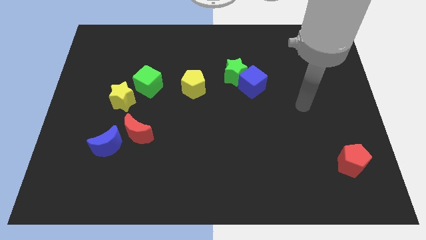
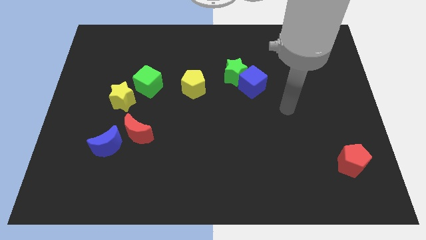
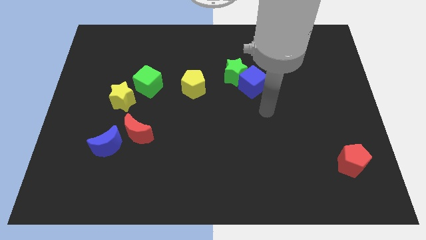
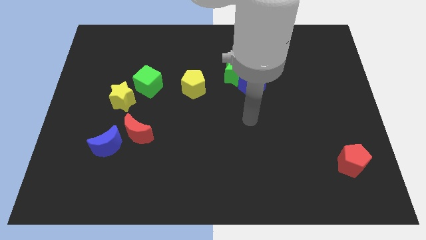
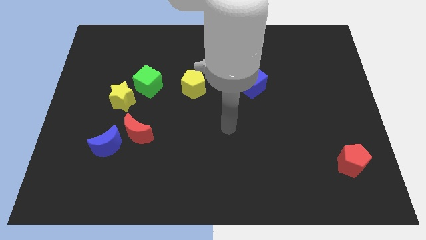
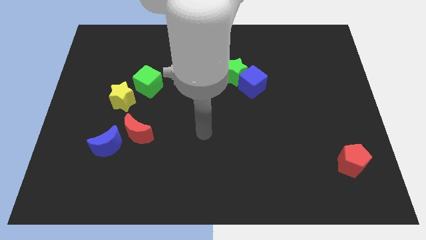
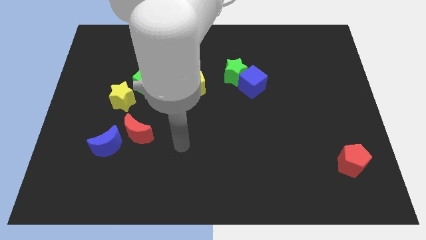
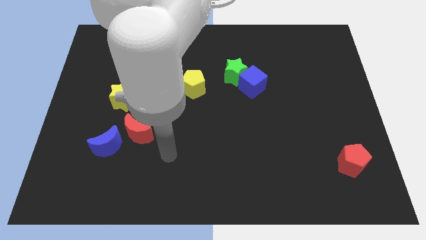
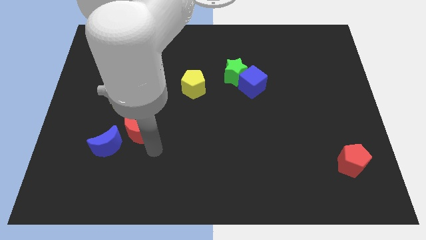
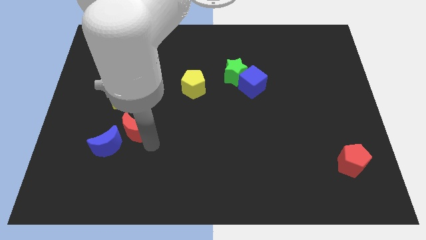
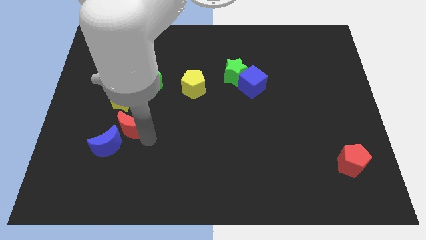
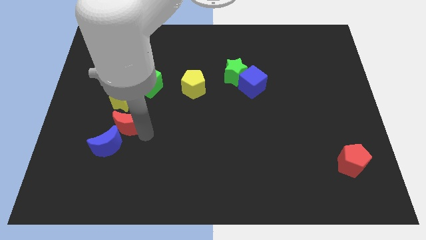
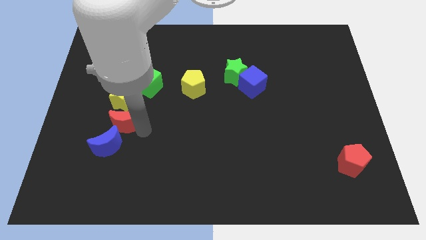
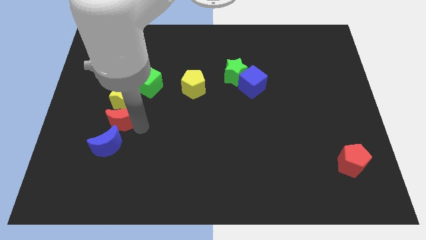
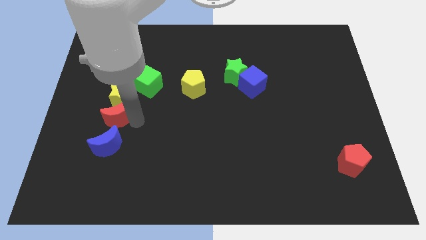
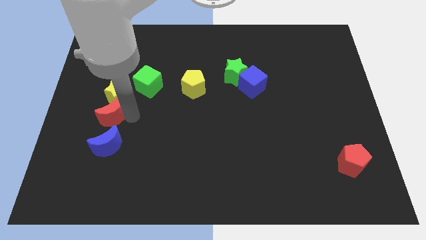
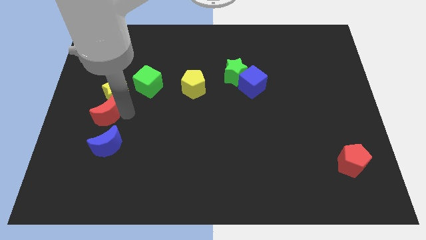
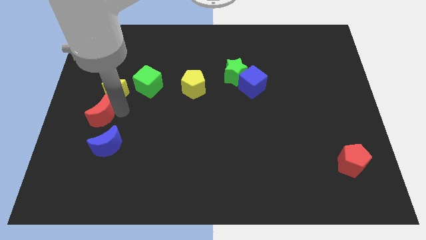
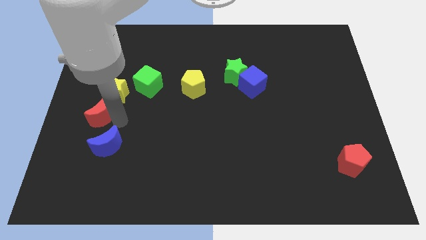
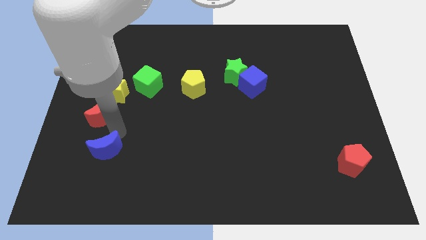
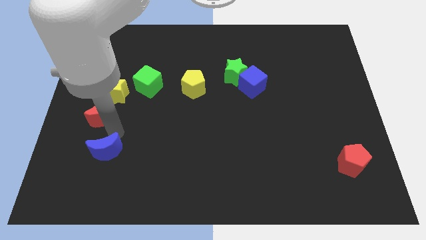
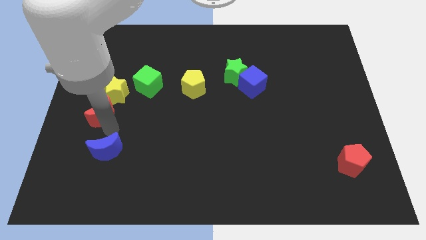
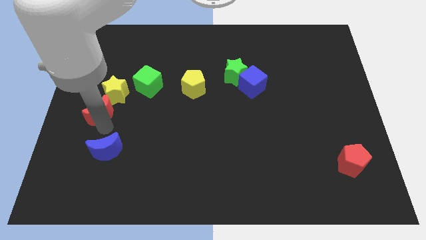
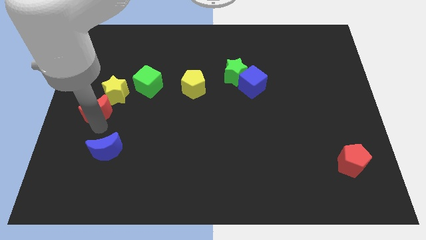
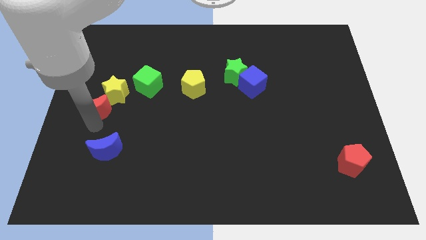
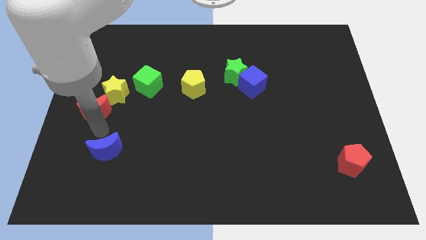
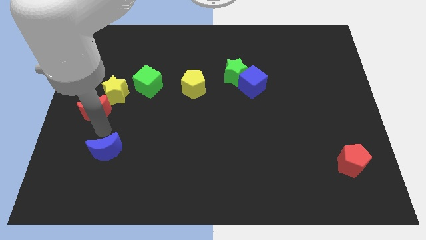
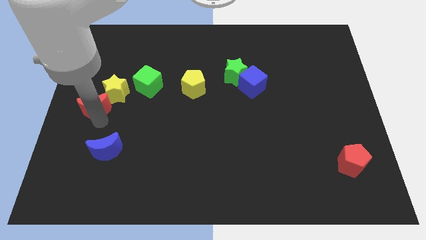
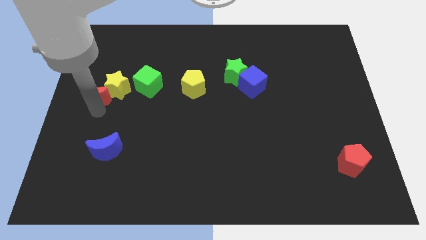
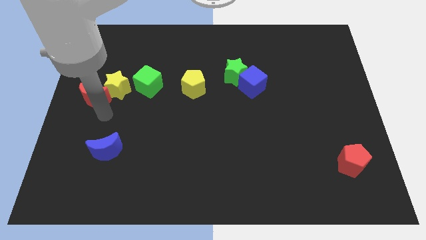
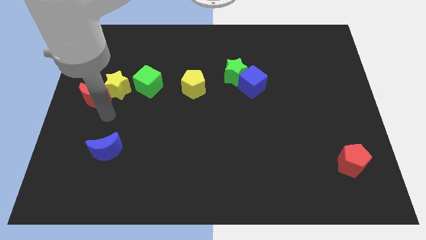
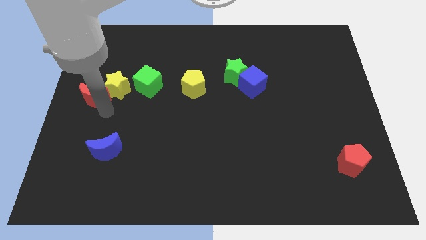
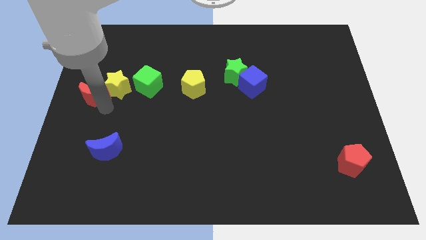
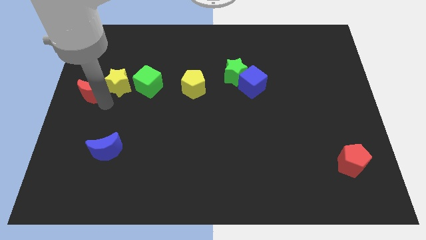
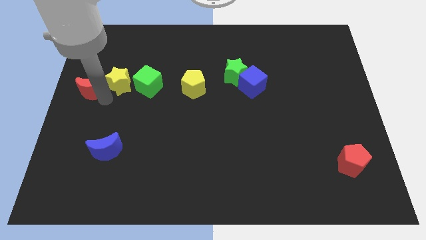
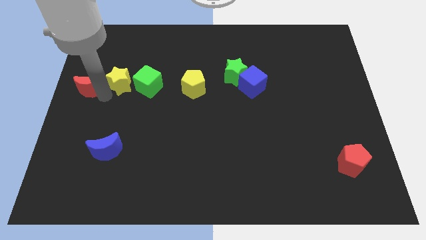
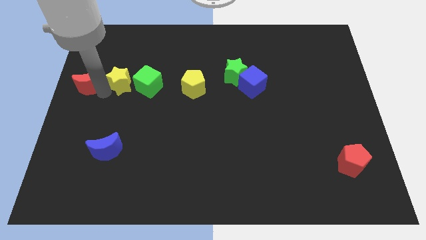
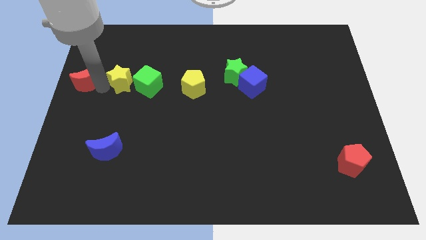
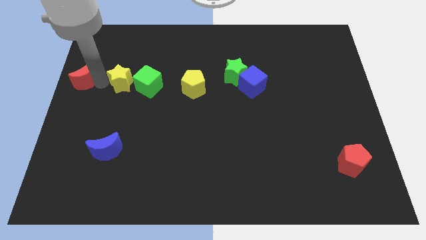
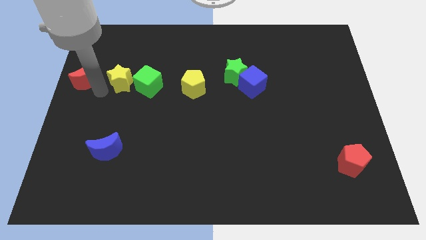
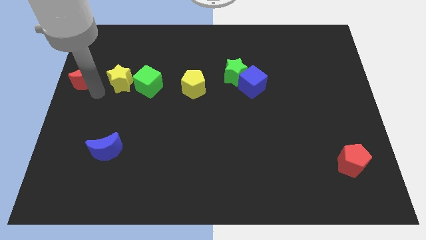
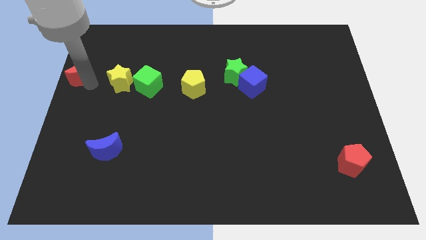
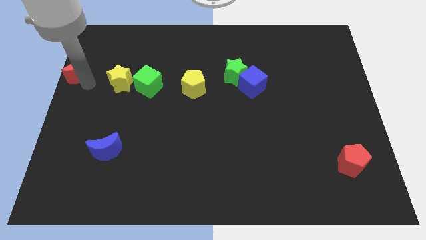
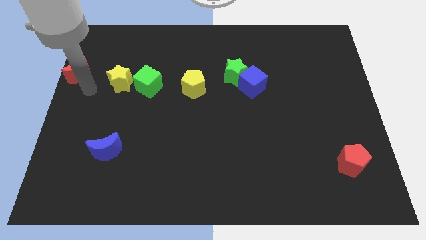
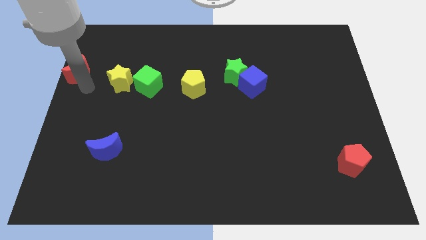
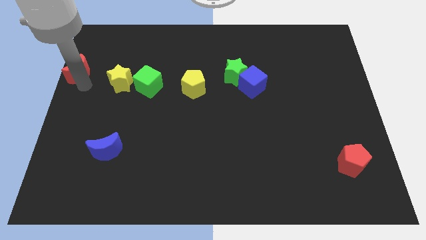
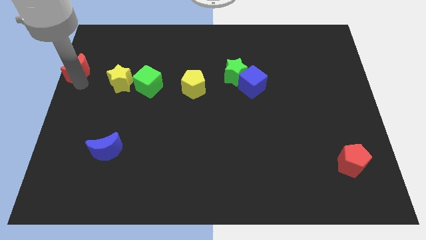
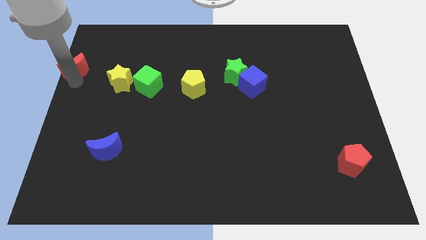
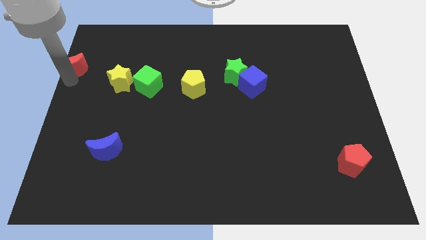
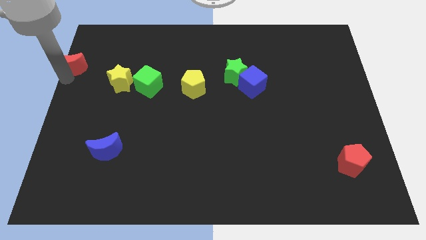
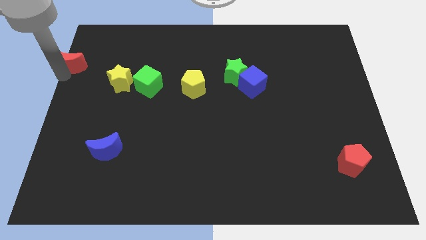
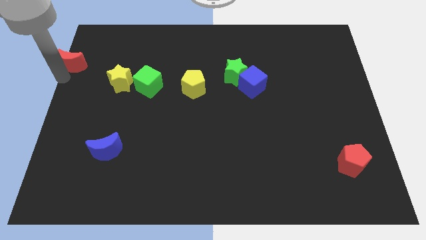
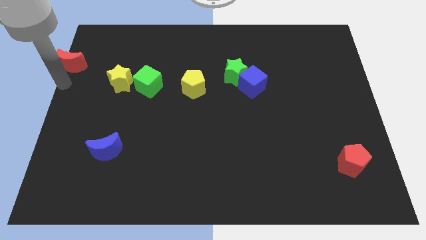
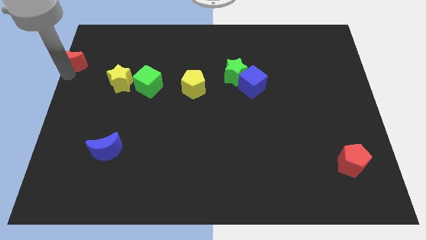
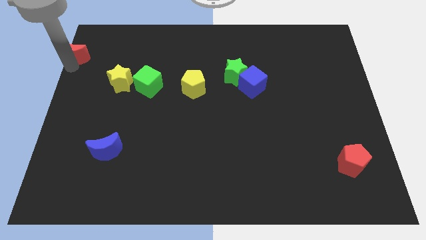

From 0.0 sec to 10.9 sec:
put the red moon to the top left

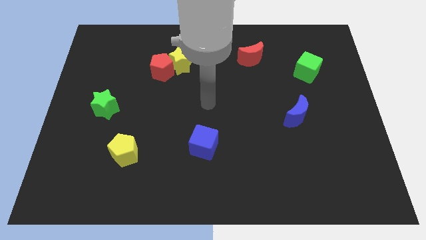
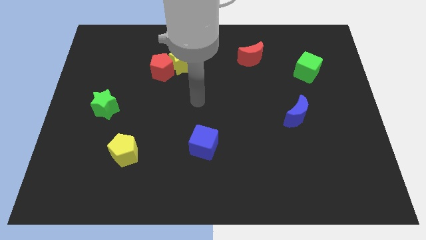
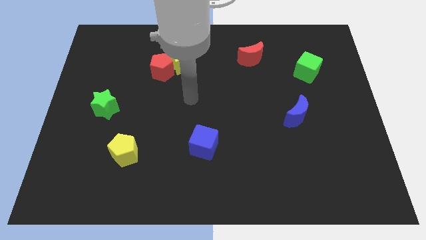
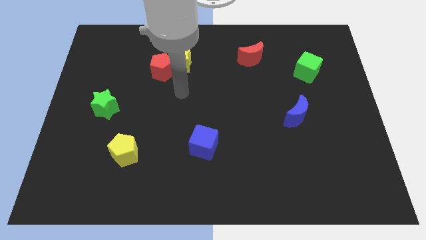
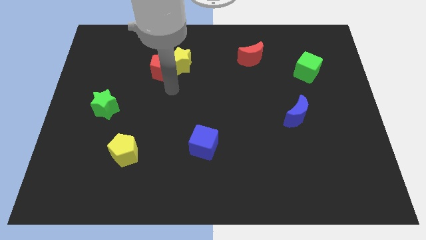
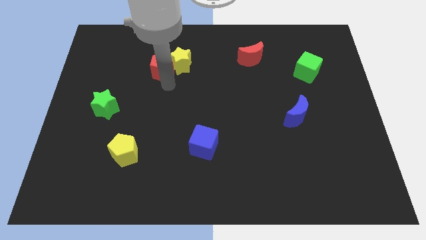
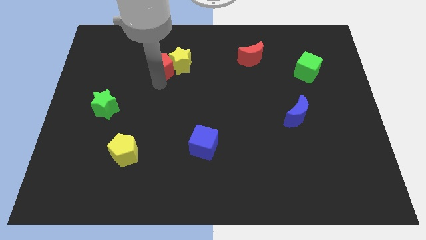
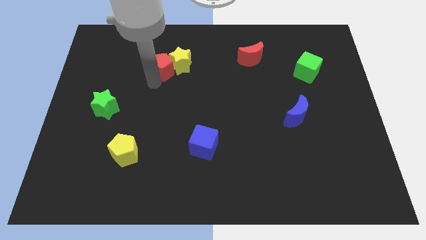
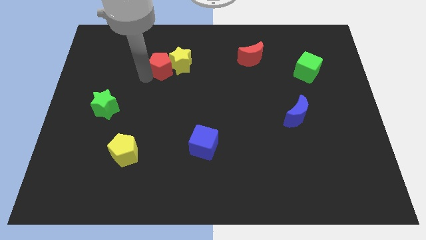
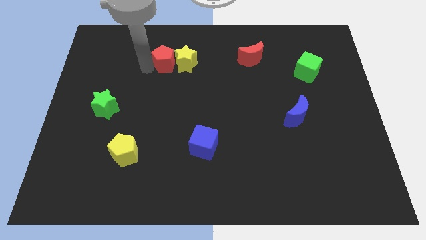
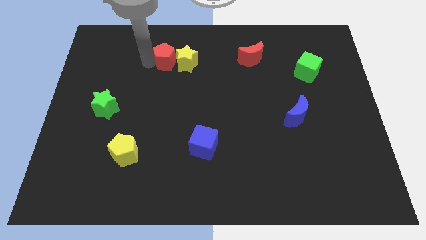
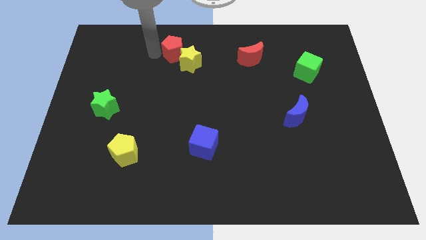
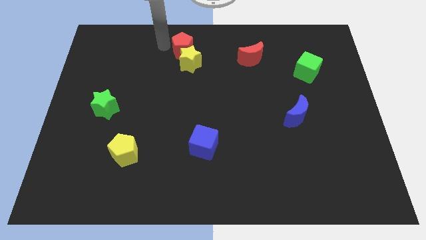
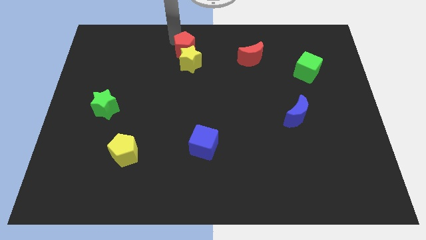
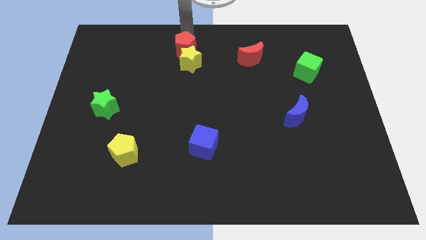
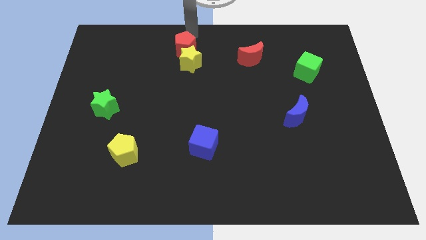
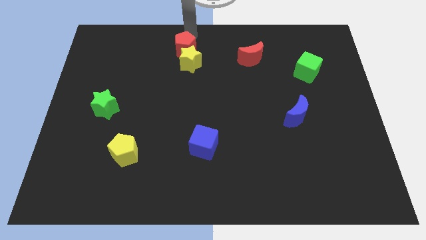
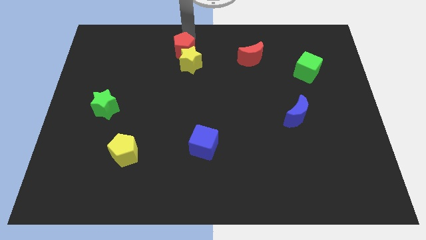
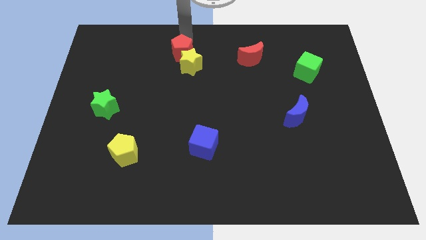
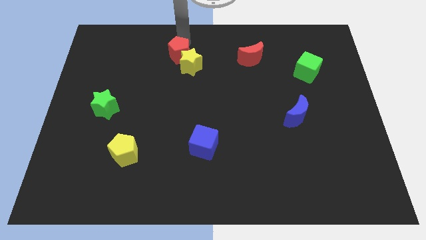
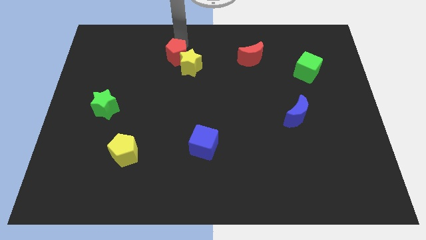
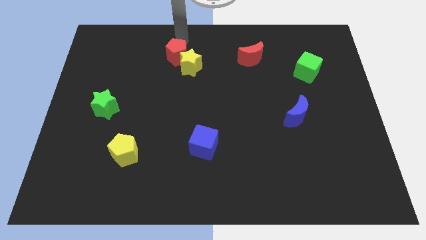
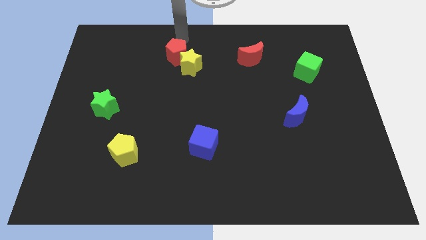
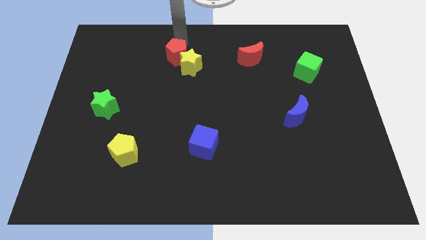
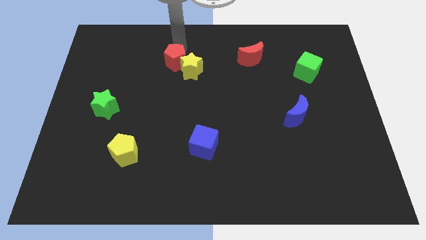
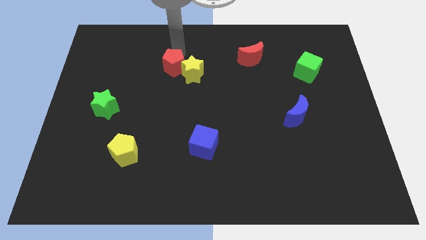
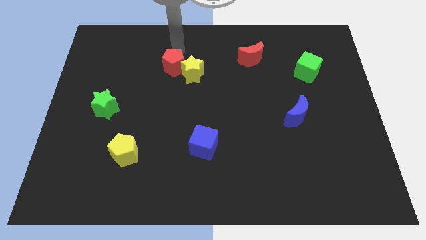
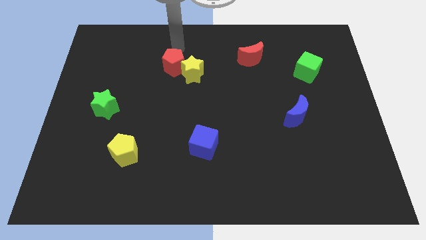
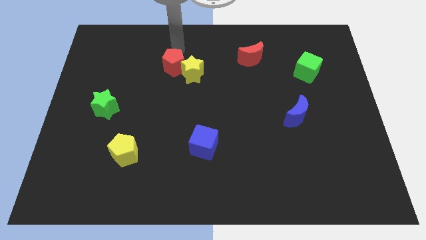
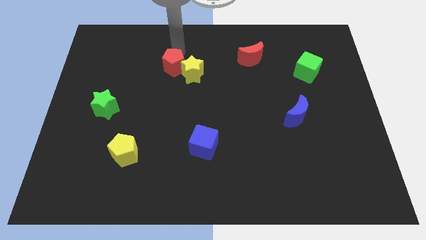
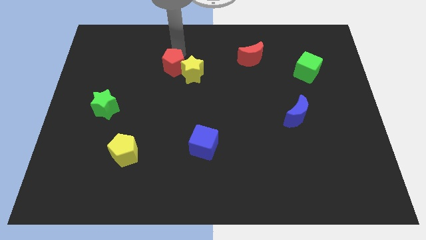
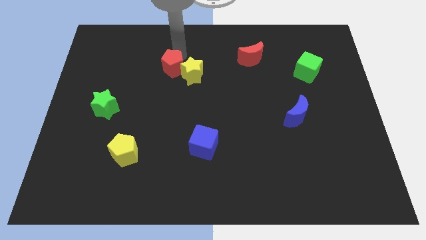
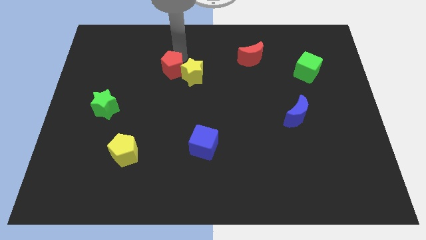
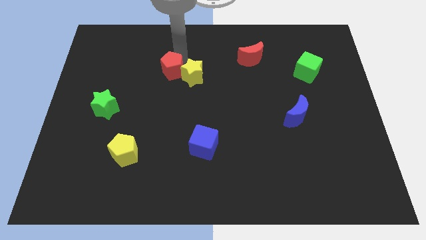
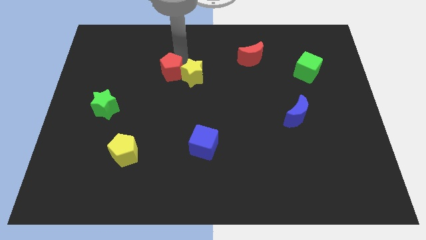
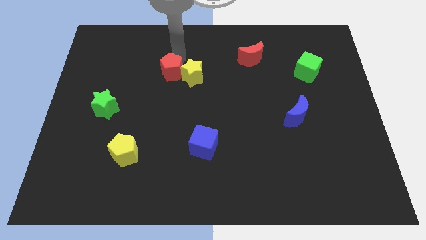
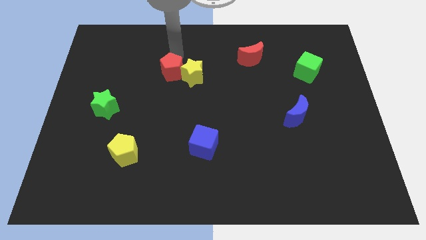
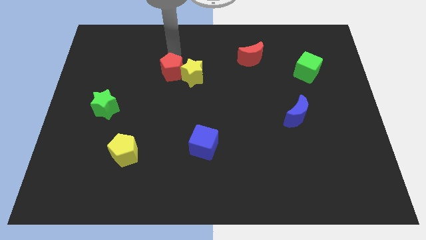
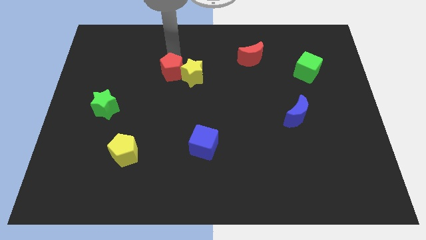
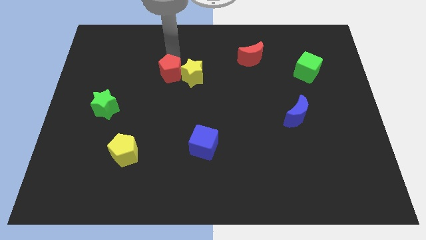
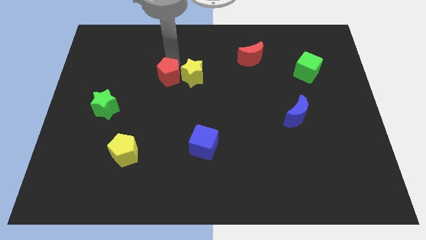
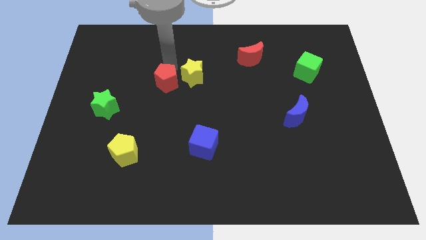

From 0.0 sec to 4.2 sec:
put the red pentagon to the middle of the board
